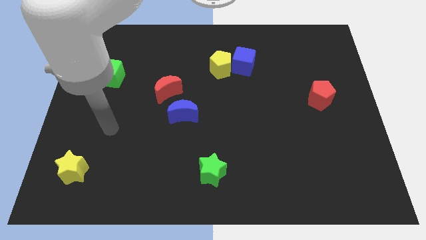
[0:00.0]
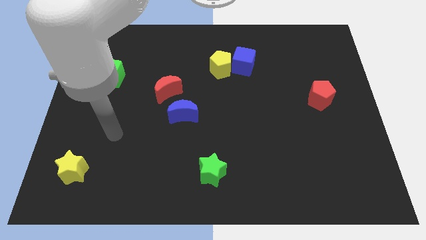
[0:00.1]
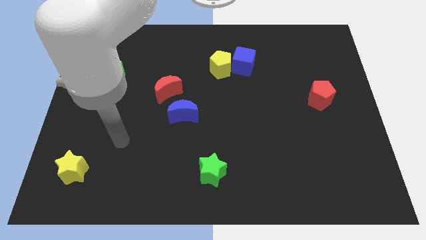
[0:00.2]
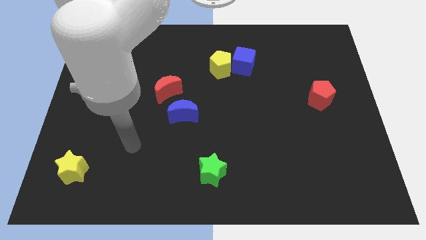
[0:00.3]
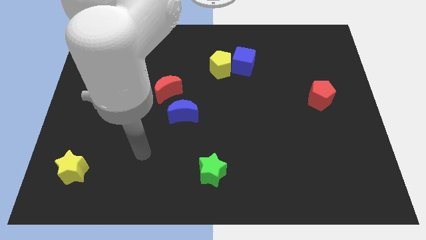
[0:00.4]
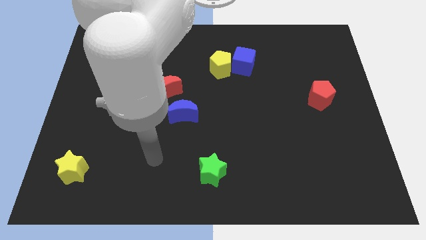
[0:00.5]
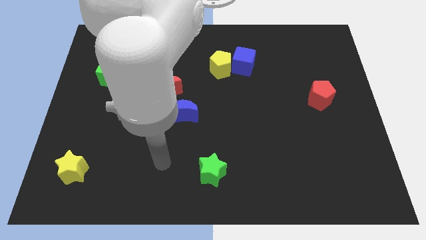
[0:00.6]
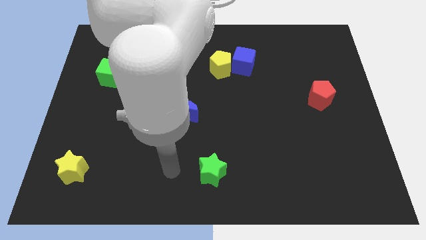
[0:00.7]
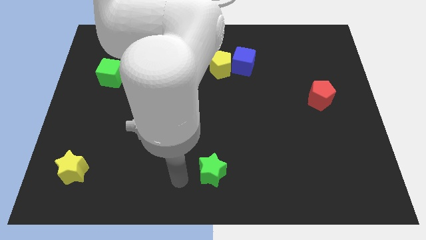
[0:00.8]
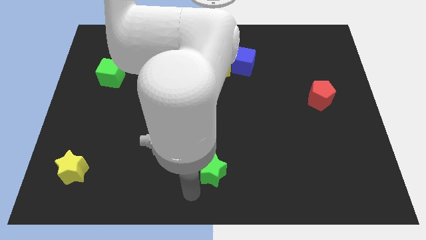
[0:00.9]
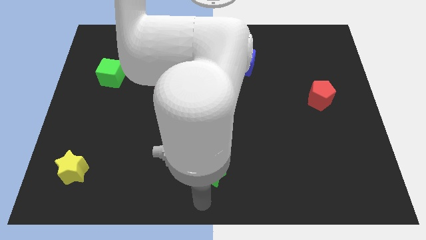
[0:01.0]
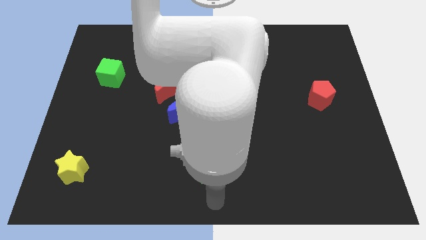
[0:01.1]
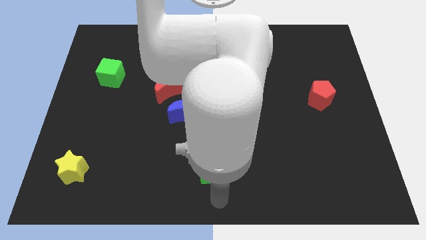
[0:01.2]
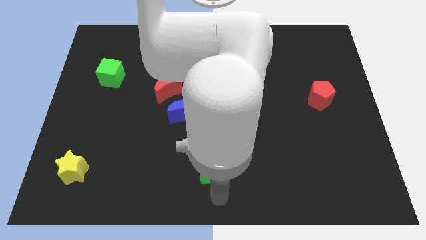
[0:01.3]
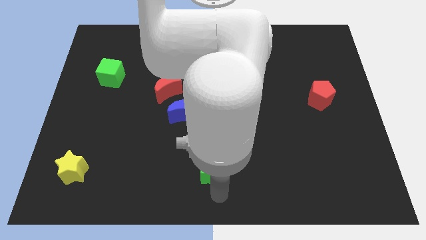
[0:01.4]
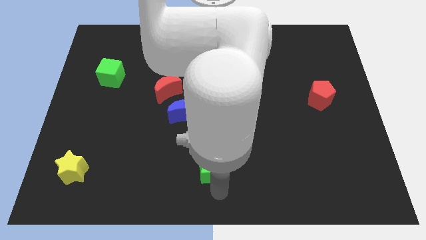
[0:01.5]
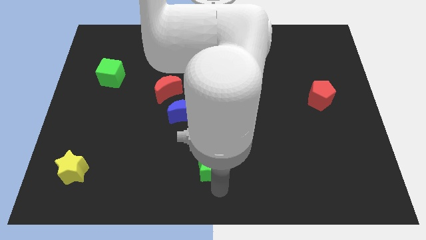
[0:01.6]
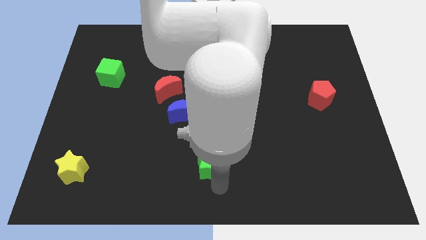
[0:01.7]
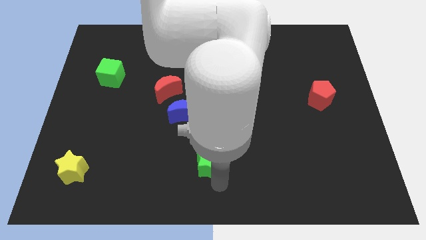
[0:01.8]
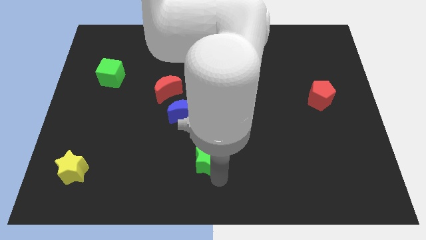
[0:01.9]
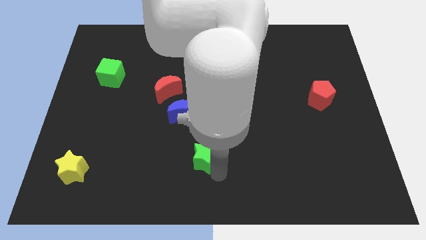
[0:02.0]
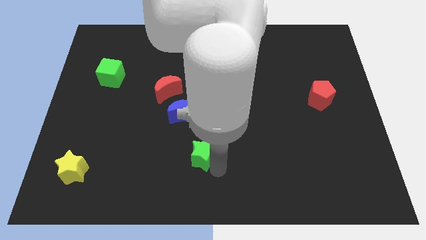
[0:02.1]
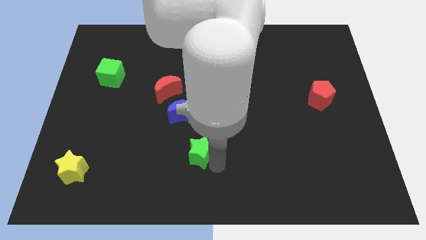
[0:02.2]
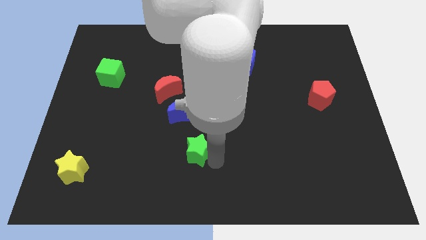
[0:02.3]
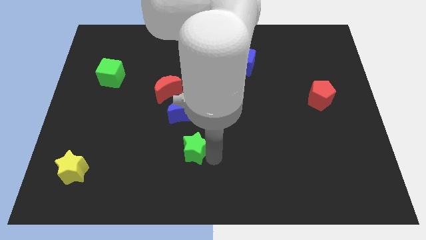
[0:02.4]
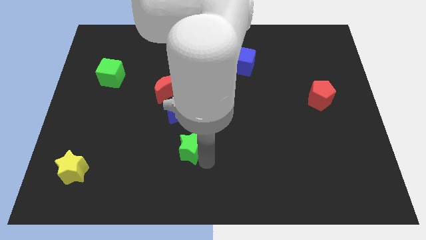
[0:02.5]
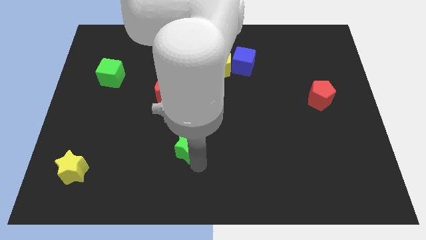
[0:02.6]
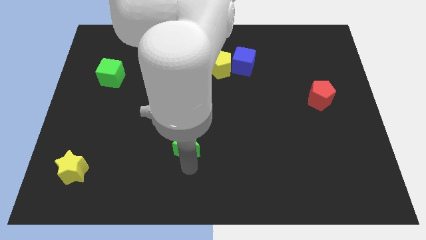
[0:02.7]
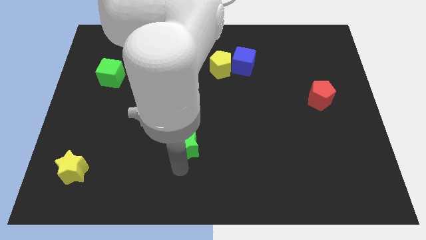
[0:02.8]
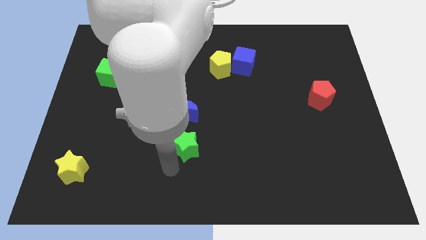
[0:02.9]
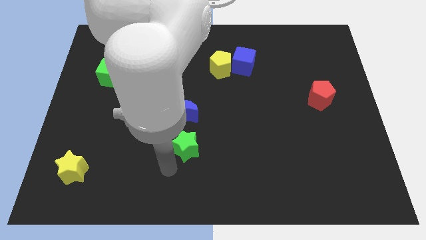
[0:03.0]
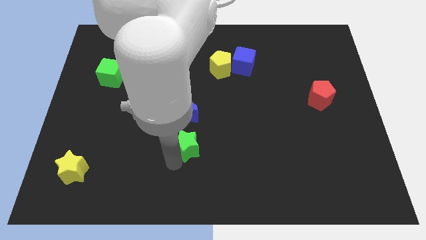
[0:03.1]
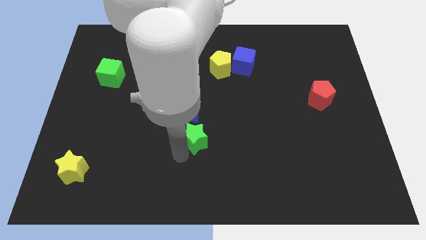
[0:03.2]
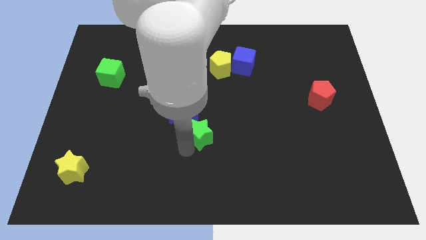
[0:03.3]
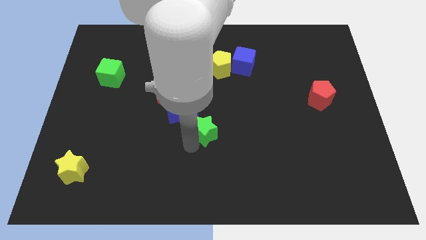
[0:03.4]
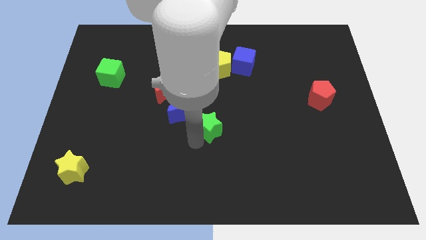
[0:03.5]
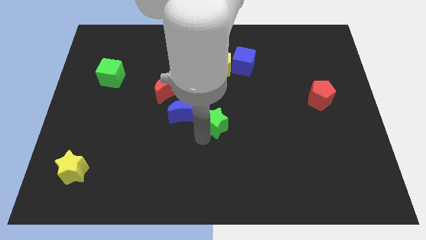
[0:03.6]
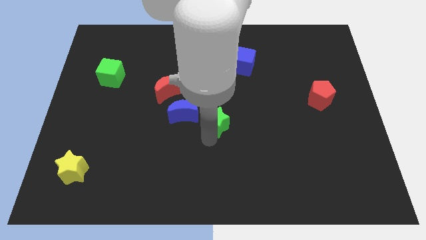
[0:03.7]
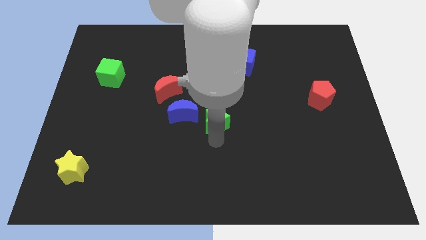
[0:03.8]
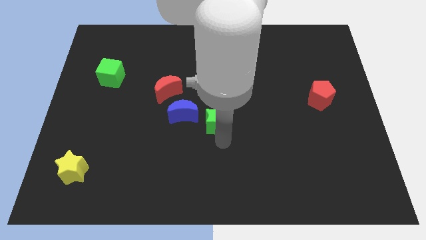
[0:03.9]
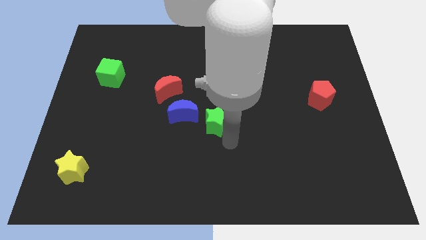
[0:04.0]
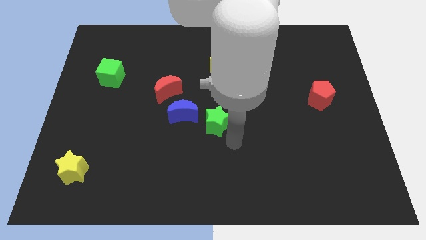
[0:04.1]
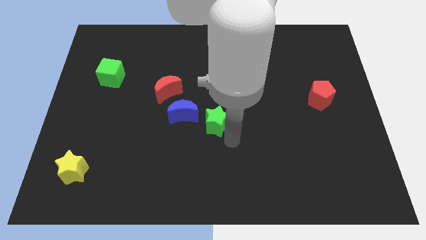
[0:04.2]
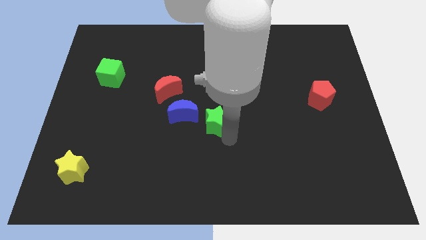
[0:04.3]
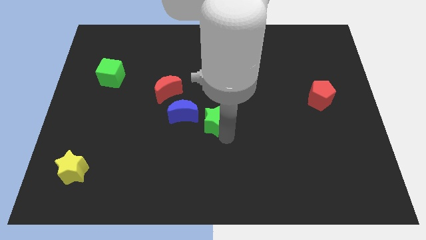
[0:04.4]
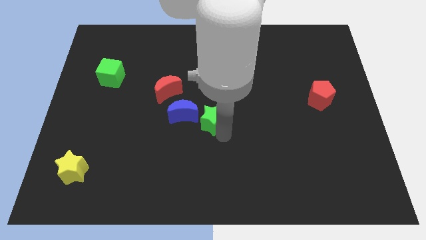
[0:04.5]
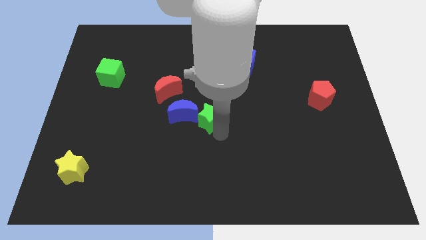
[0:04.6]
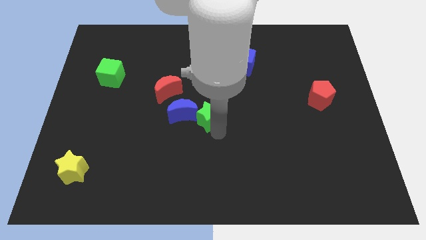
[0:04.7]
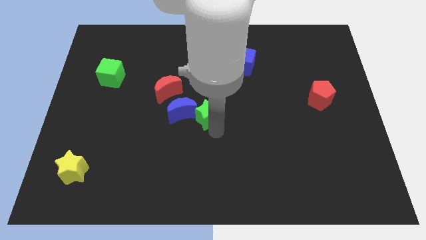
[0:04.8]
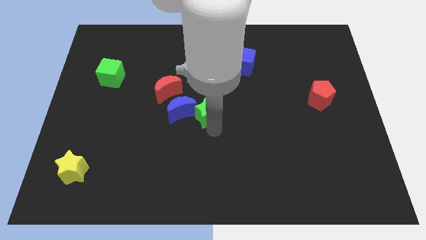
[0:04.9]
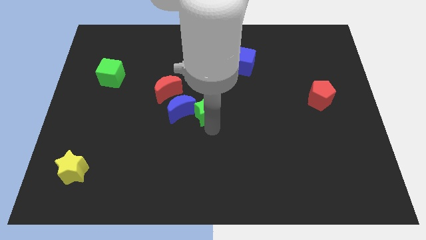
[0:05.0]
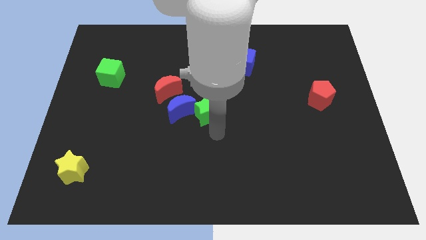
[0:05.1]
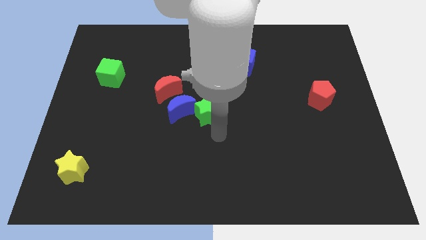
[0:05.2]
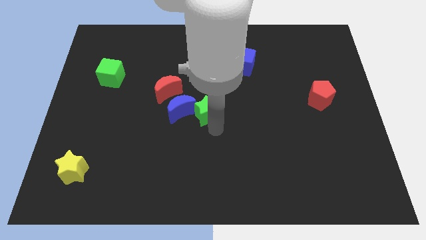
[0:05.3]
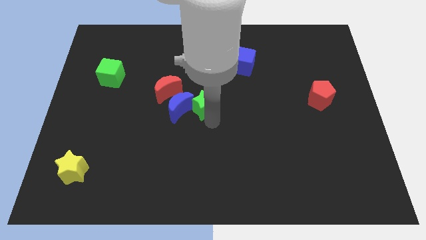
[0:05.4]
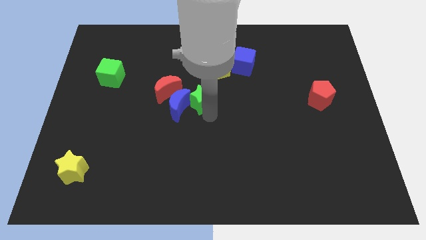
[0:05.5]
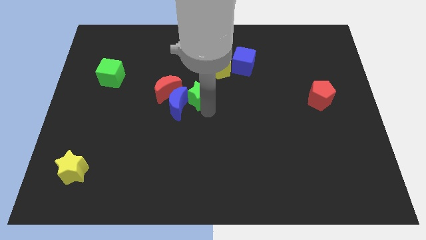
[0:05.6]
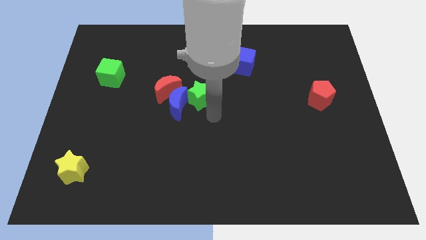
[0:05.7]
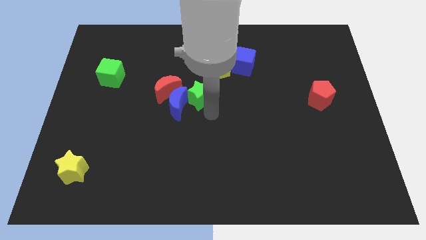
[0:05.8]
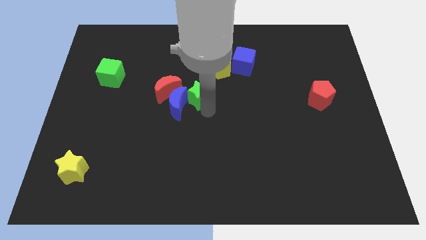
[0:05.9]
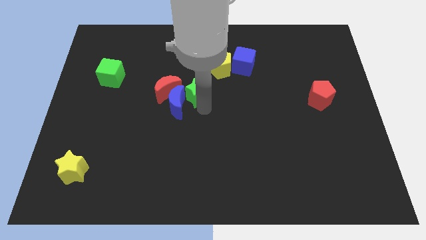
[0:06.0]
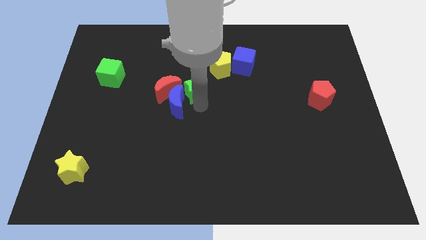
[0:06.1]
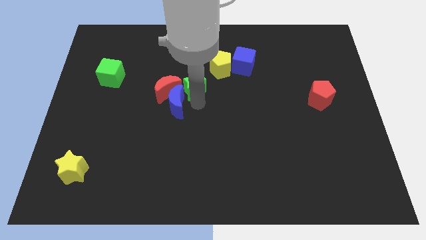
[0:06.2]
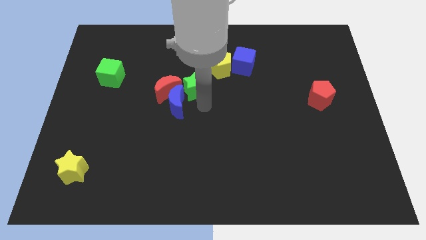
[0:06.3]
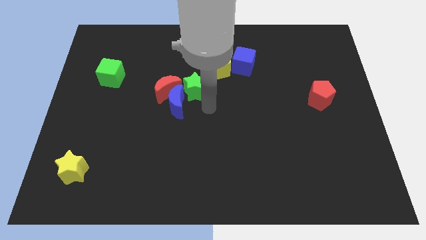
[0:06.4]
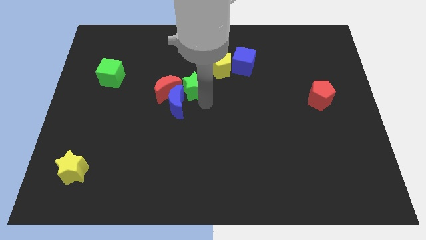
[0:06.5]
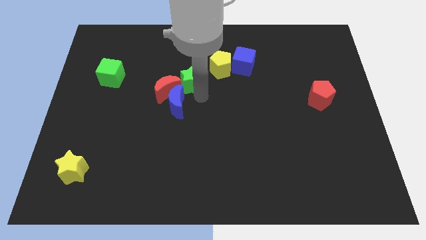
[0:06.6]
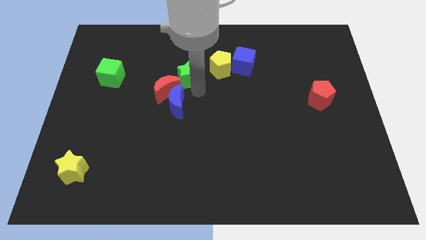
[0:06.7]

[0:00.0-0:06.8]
put the green star left of the yellow pentagon

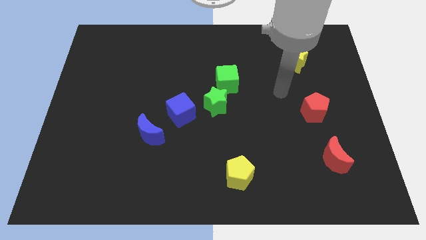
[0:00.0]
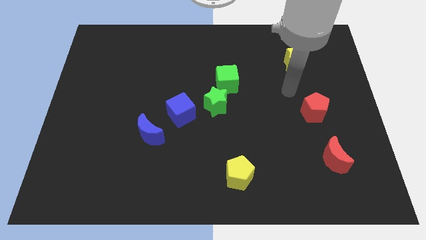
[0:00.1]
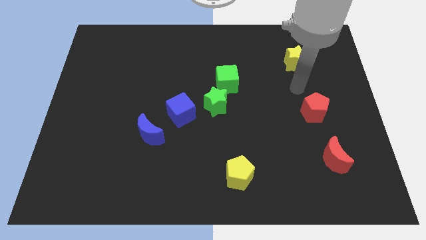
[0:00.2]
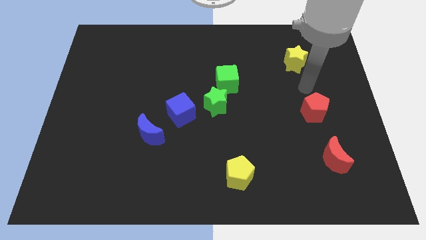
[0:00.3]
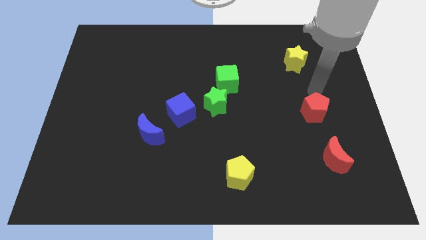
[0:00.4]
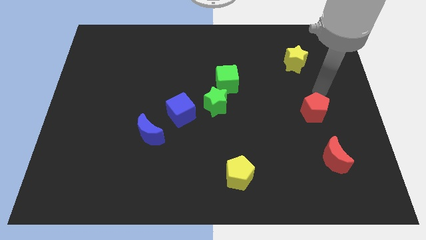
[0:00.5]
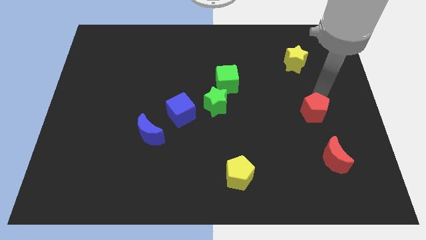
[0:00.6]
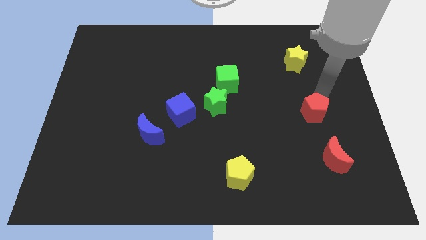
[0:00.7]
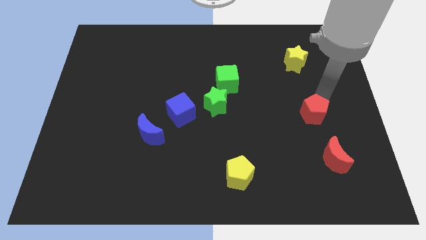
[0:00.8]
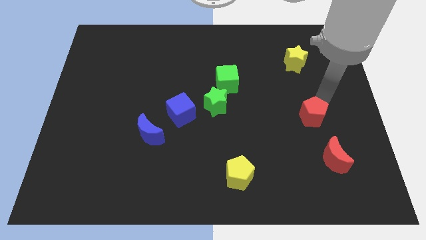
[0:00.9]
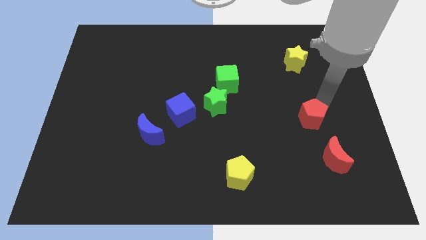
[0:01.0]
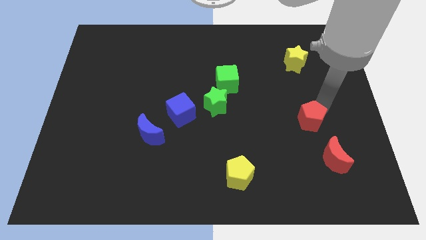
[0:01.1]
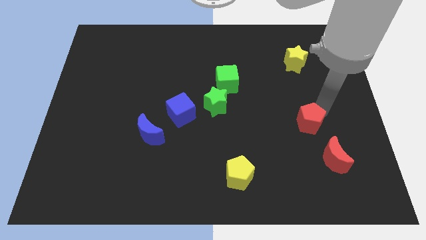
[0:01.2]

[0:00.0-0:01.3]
put the red pentagon to the top left of the red moon
